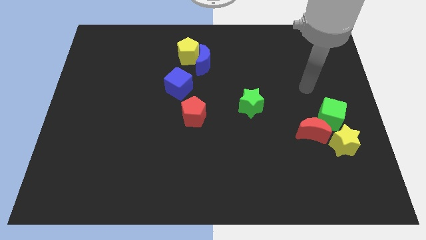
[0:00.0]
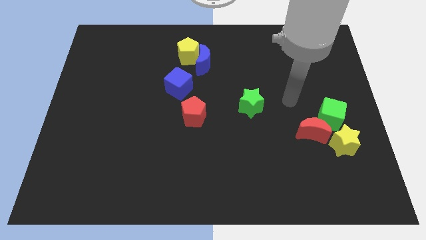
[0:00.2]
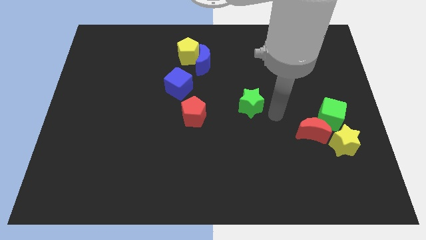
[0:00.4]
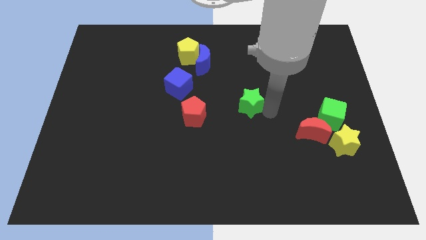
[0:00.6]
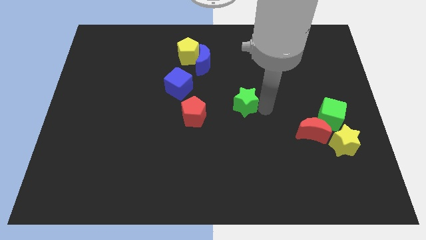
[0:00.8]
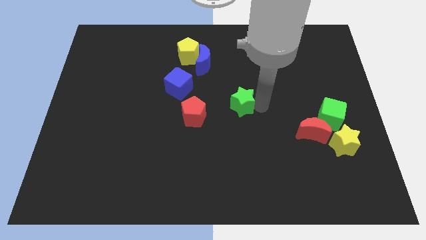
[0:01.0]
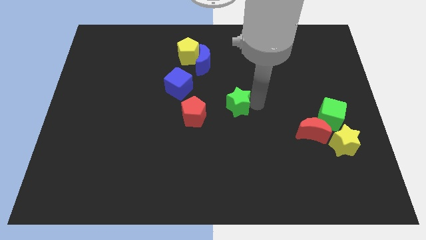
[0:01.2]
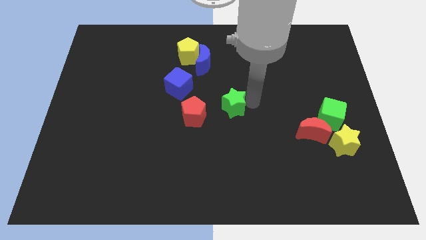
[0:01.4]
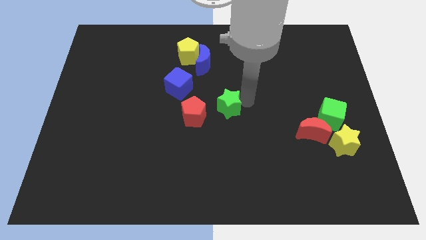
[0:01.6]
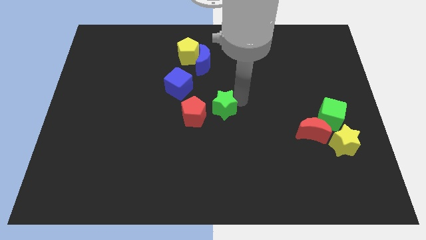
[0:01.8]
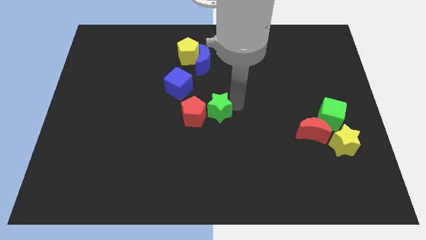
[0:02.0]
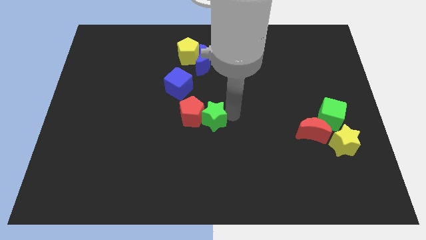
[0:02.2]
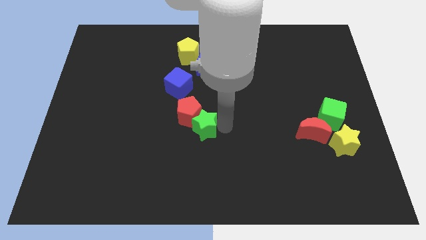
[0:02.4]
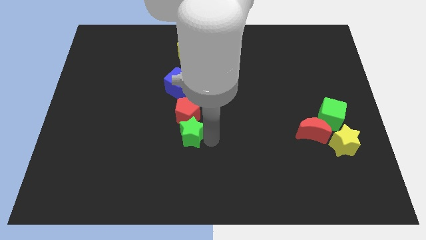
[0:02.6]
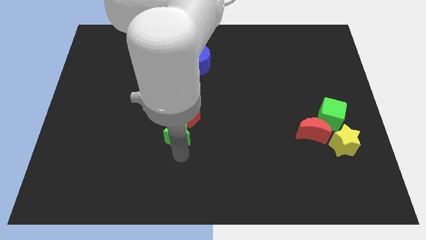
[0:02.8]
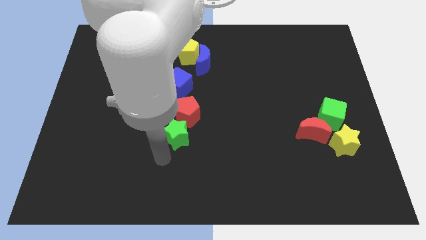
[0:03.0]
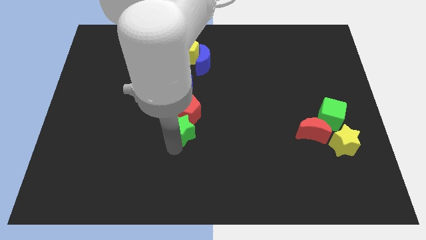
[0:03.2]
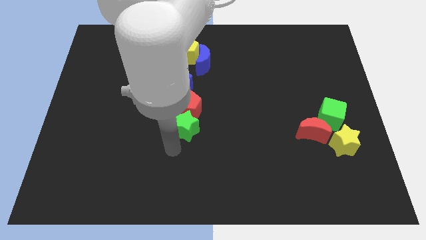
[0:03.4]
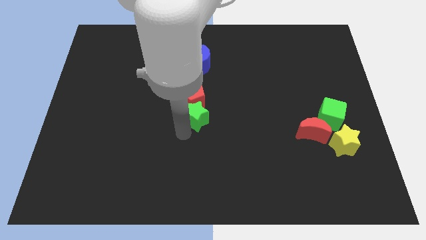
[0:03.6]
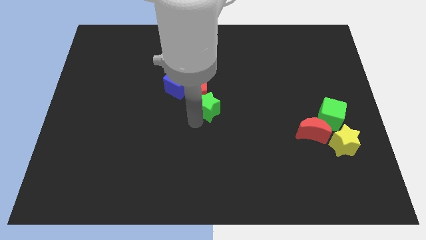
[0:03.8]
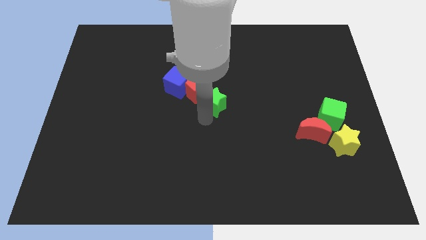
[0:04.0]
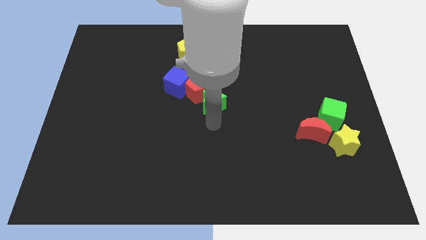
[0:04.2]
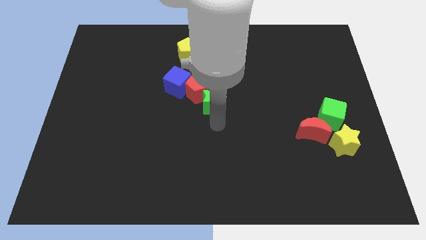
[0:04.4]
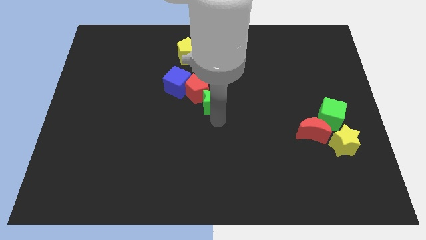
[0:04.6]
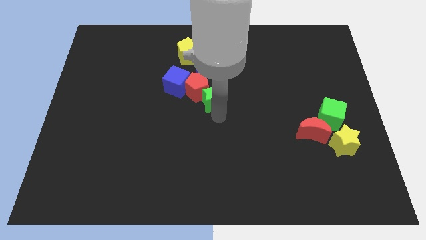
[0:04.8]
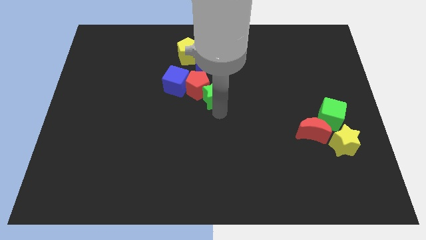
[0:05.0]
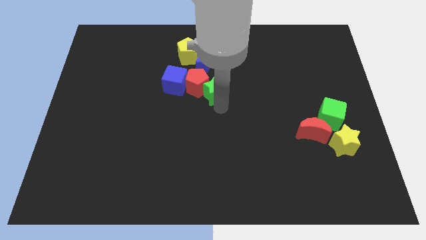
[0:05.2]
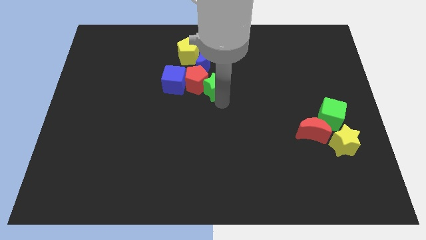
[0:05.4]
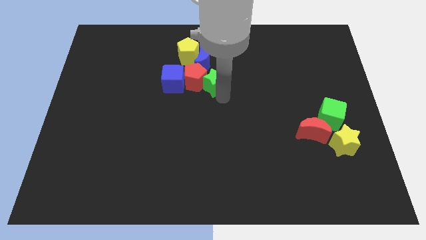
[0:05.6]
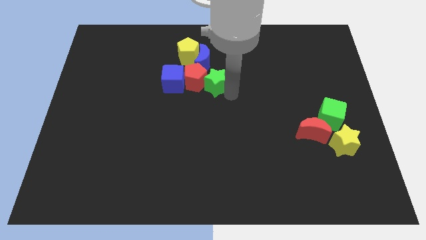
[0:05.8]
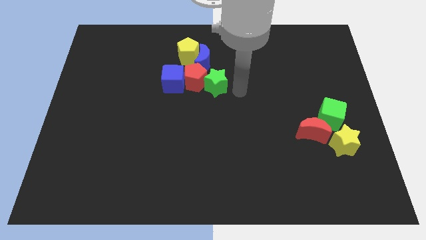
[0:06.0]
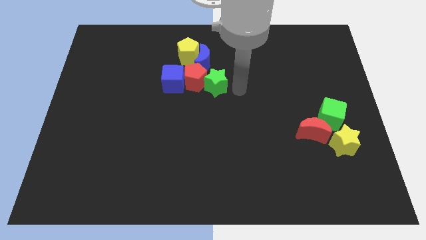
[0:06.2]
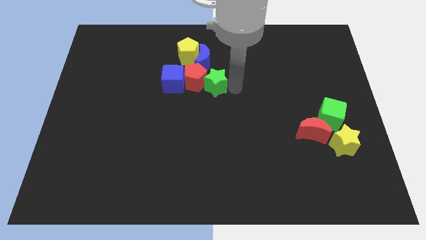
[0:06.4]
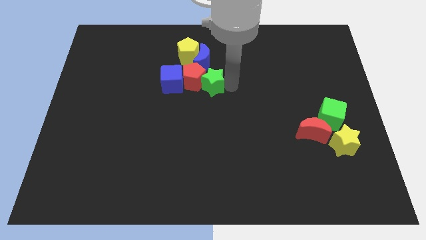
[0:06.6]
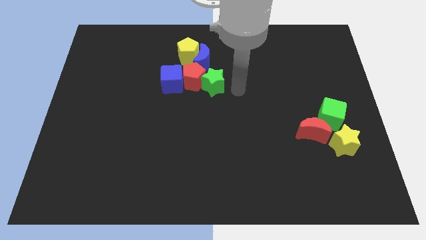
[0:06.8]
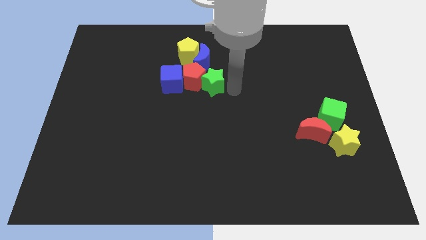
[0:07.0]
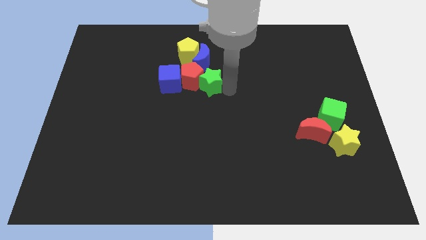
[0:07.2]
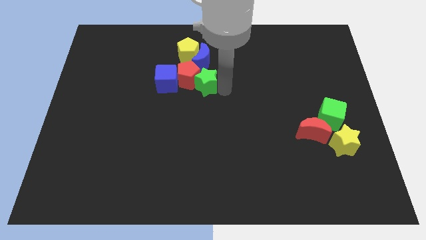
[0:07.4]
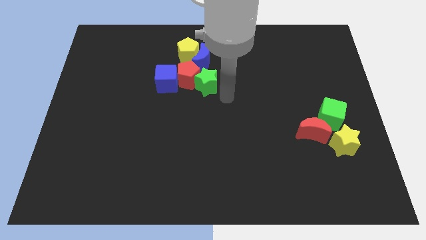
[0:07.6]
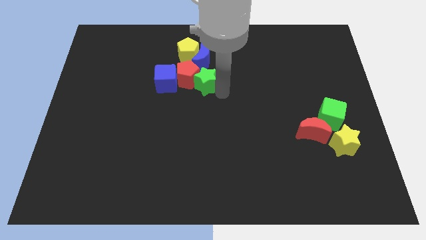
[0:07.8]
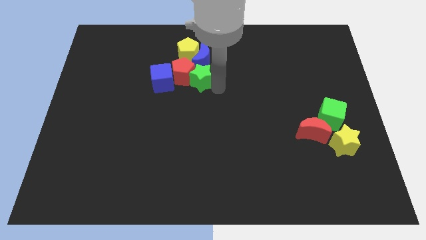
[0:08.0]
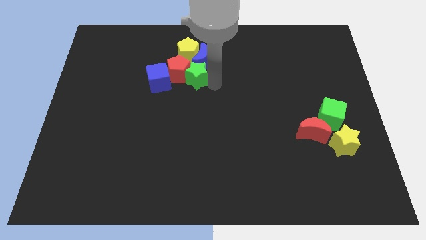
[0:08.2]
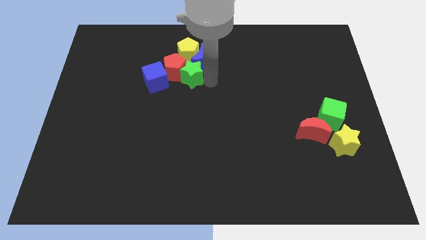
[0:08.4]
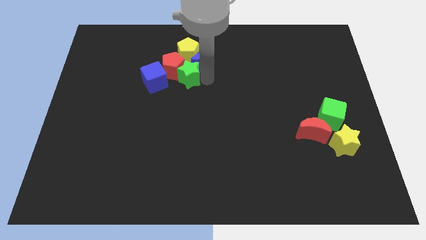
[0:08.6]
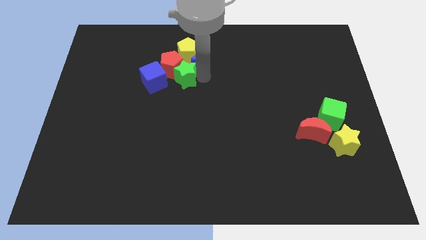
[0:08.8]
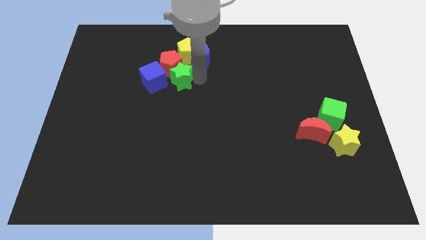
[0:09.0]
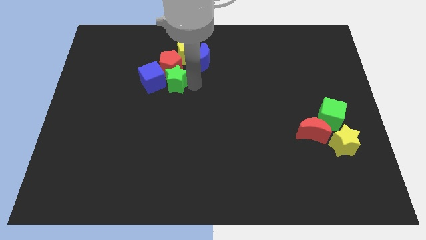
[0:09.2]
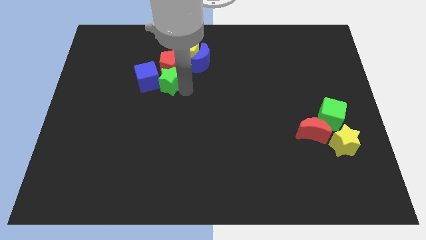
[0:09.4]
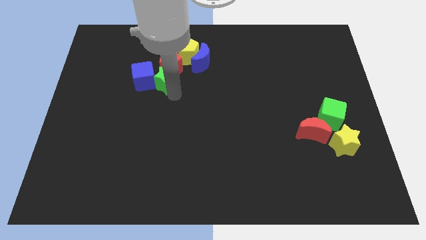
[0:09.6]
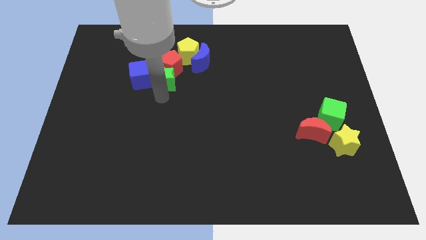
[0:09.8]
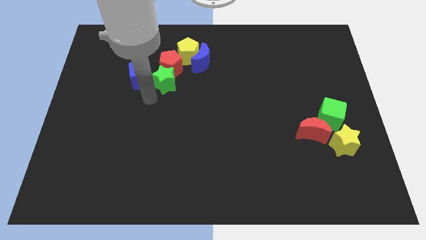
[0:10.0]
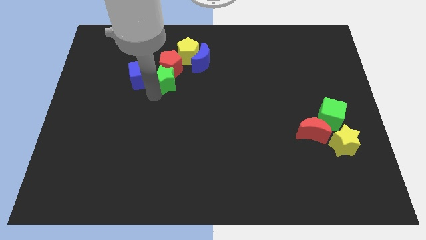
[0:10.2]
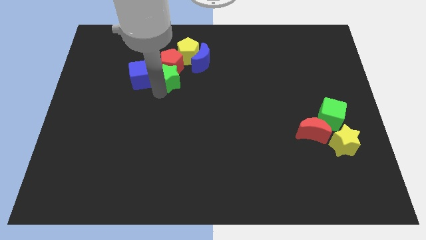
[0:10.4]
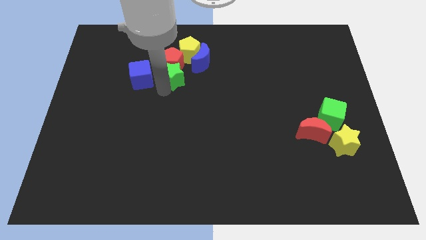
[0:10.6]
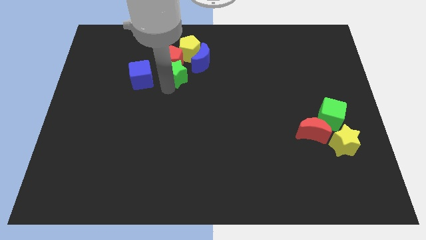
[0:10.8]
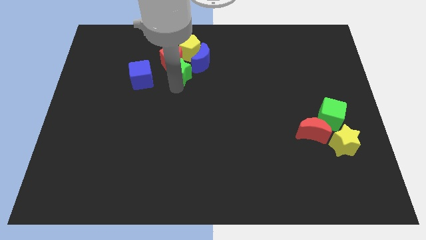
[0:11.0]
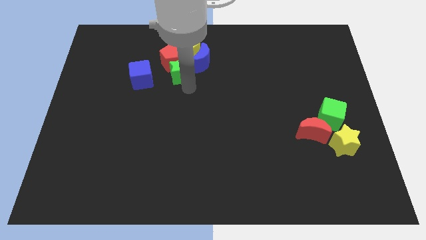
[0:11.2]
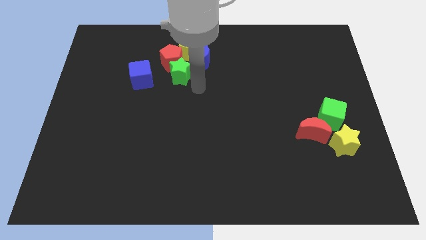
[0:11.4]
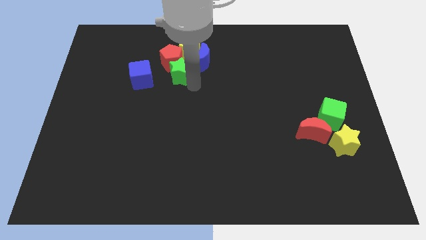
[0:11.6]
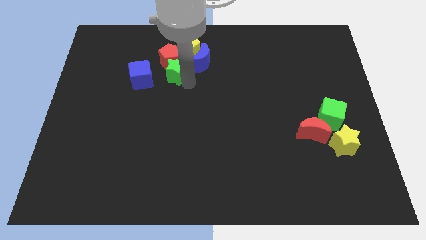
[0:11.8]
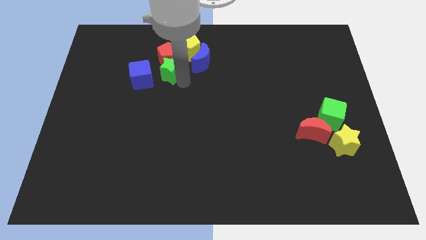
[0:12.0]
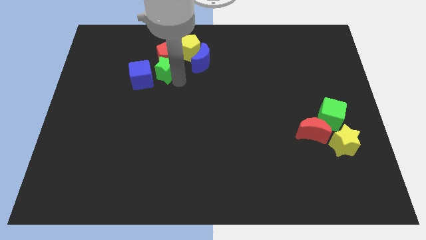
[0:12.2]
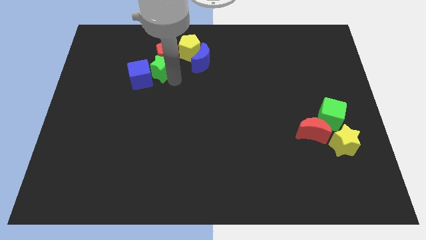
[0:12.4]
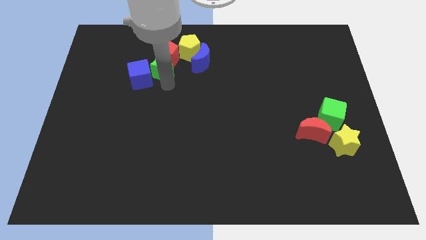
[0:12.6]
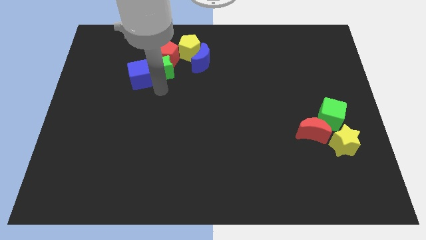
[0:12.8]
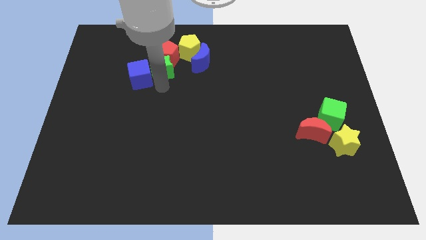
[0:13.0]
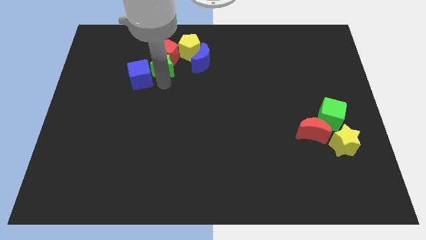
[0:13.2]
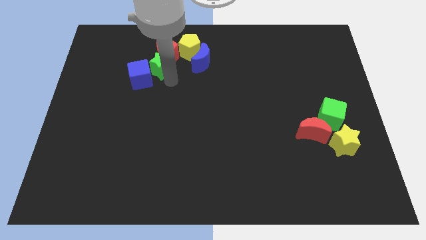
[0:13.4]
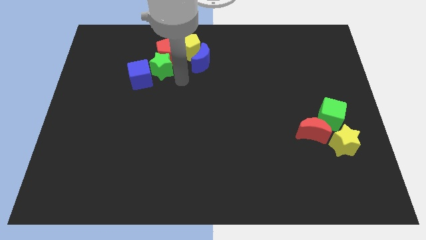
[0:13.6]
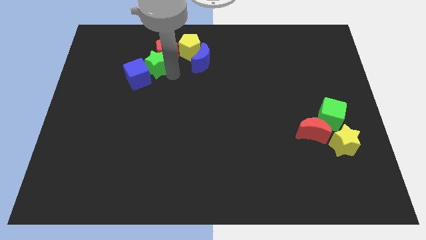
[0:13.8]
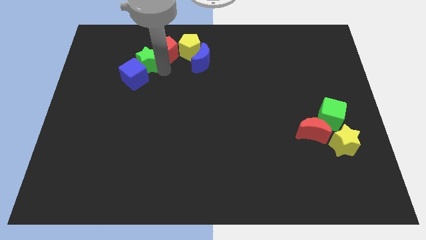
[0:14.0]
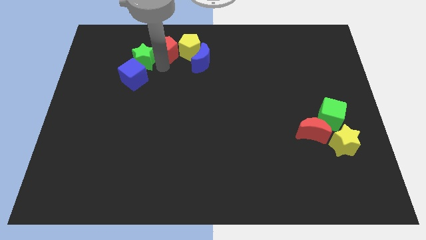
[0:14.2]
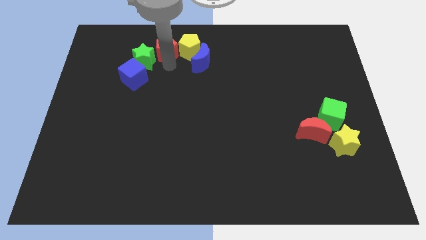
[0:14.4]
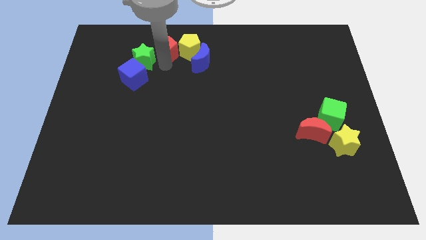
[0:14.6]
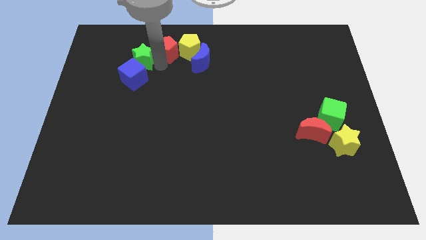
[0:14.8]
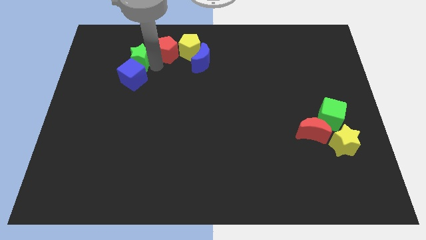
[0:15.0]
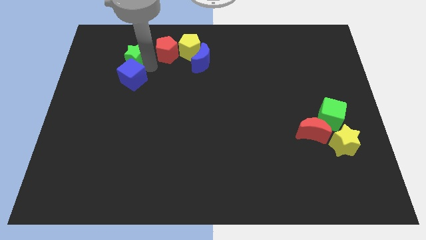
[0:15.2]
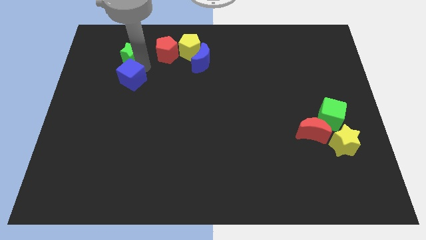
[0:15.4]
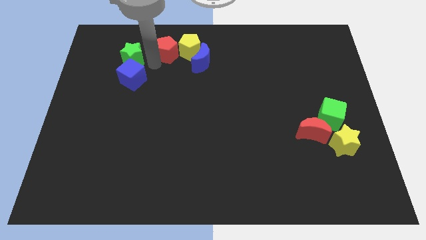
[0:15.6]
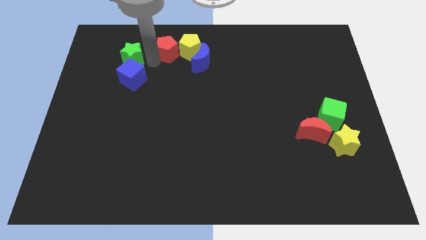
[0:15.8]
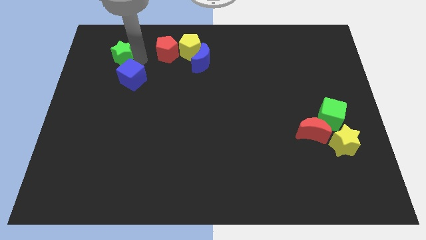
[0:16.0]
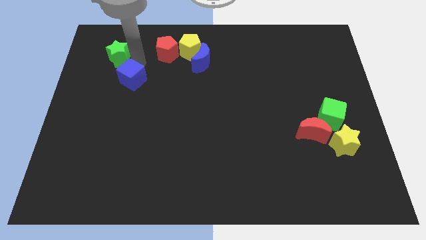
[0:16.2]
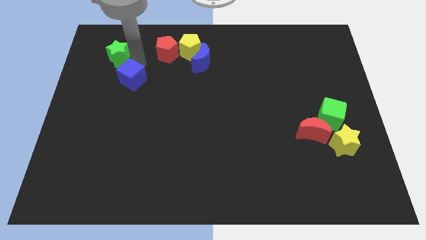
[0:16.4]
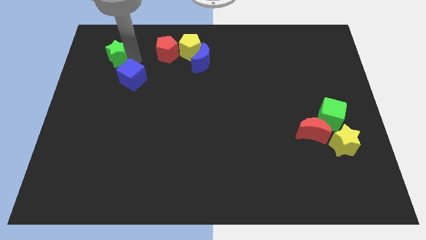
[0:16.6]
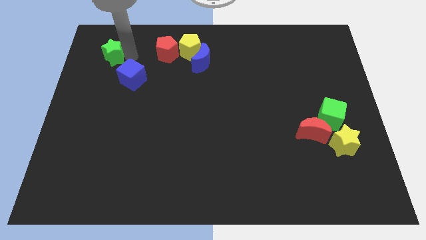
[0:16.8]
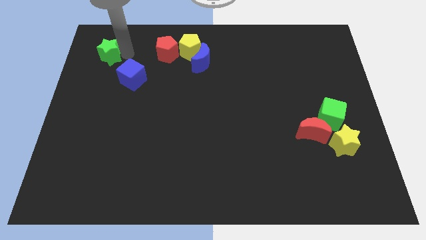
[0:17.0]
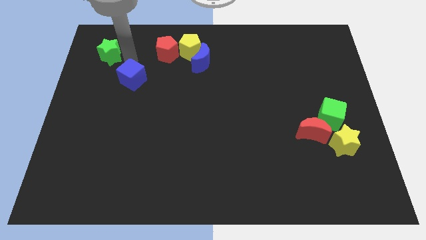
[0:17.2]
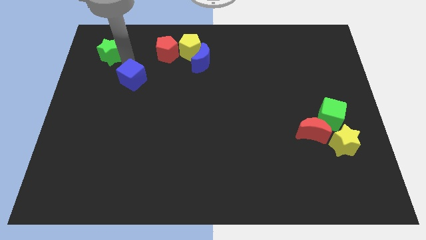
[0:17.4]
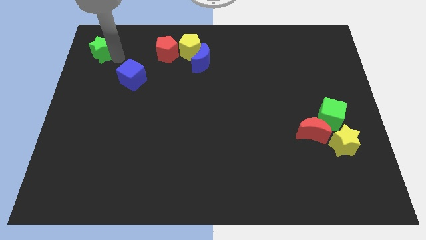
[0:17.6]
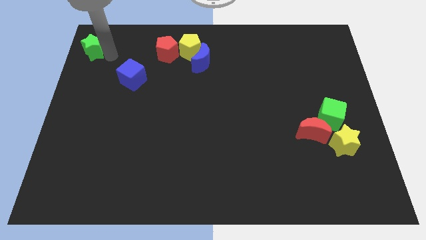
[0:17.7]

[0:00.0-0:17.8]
put the green star to the top left
